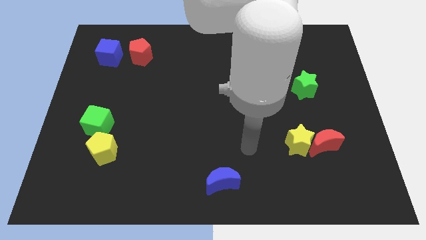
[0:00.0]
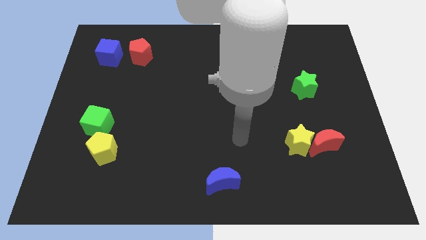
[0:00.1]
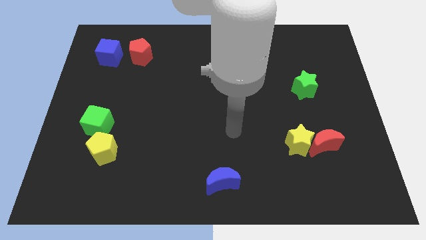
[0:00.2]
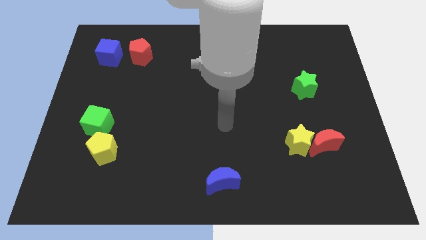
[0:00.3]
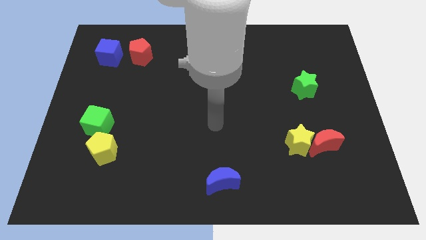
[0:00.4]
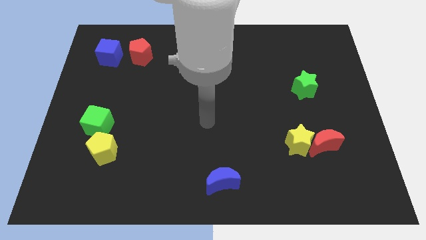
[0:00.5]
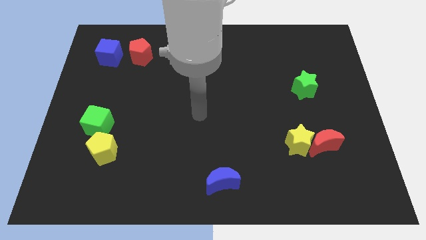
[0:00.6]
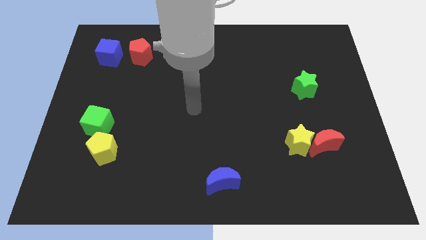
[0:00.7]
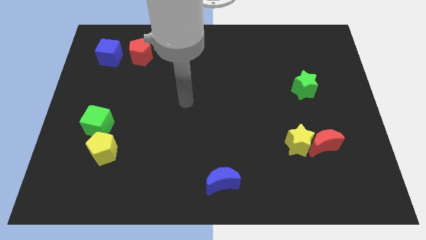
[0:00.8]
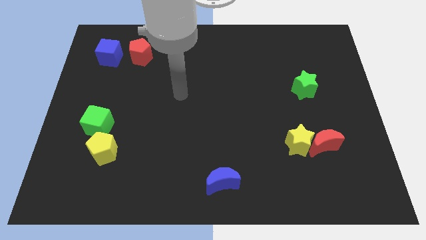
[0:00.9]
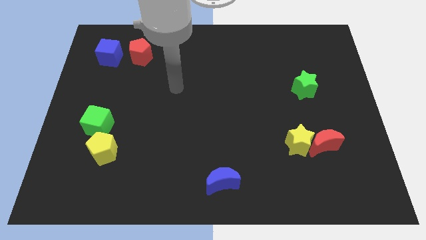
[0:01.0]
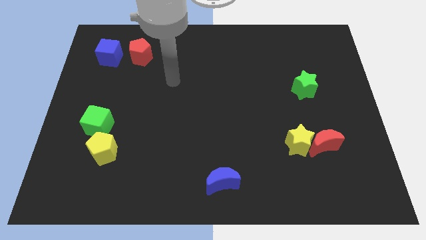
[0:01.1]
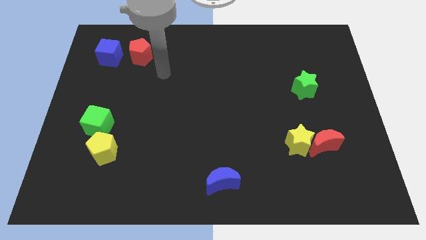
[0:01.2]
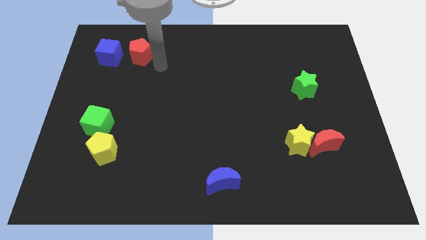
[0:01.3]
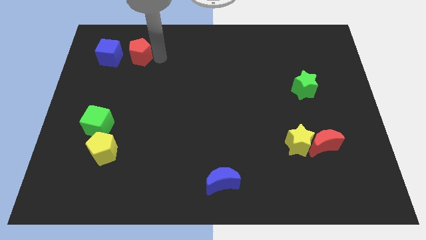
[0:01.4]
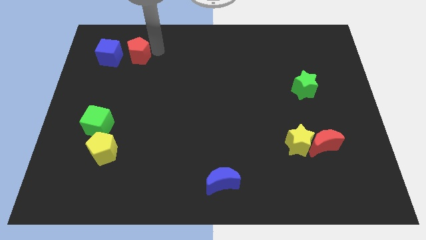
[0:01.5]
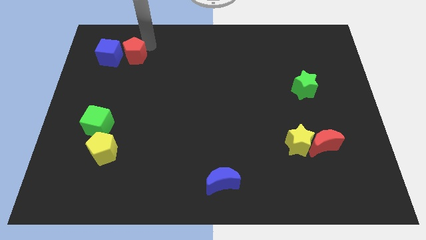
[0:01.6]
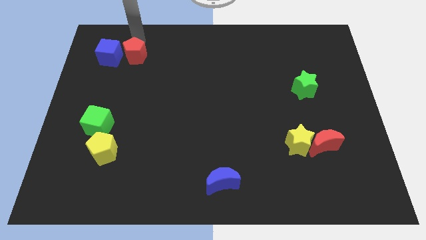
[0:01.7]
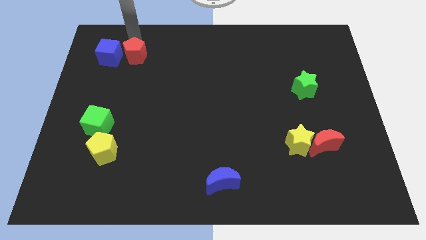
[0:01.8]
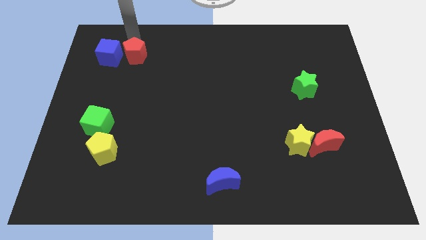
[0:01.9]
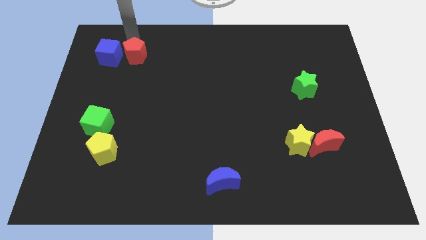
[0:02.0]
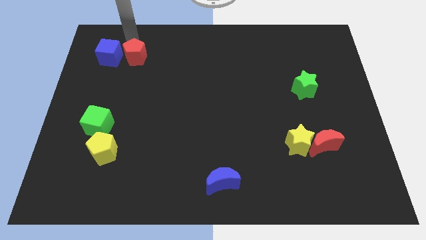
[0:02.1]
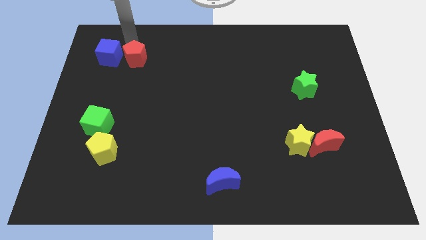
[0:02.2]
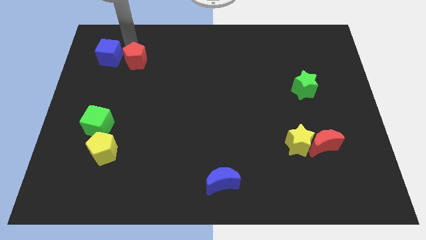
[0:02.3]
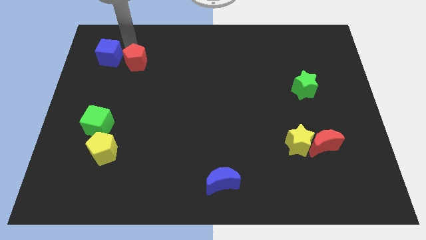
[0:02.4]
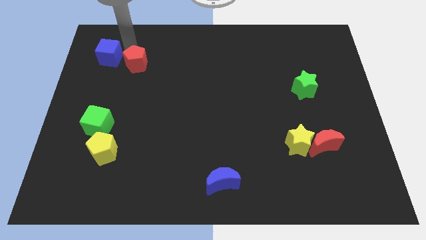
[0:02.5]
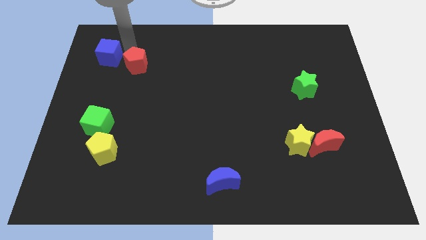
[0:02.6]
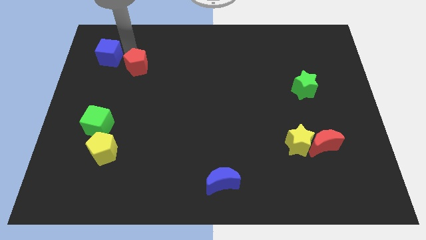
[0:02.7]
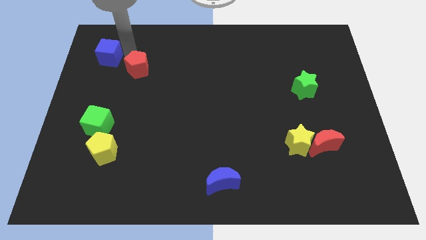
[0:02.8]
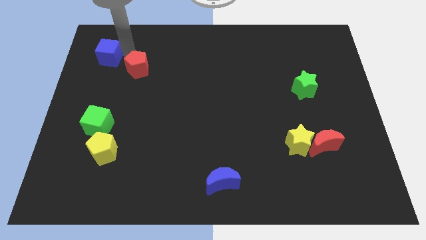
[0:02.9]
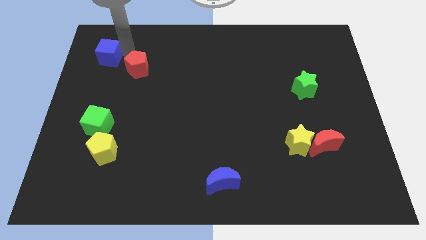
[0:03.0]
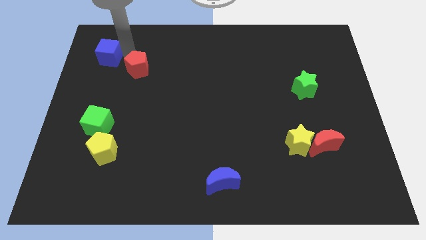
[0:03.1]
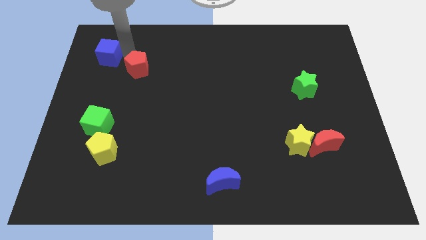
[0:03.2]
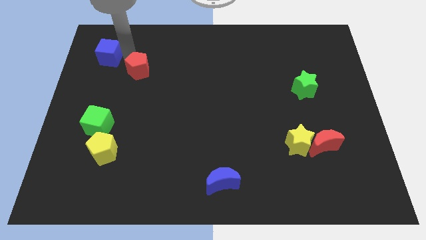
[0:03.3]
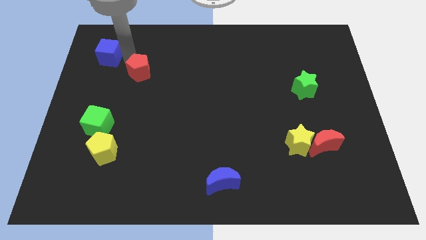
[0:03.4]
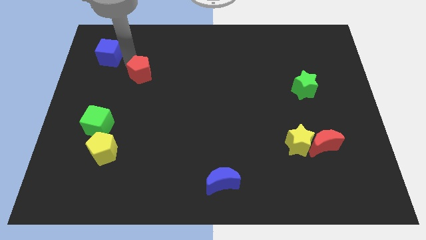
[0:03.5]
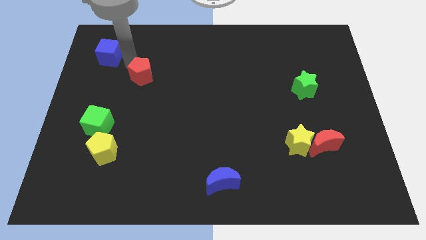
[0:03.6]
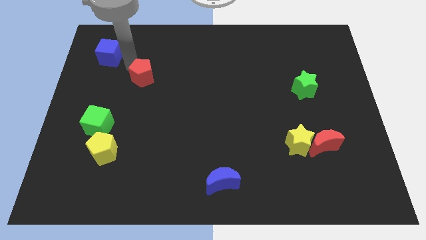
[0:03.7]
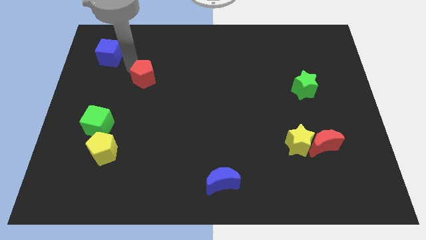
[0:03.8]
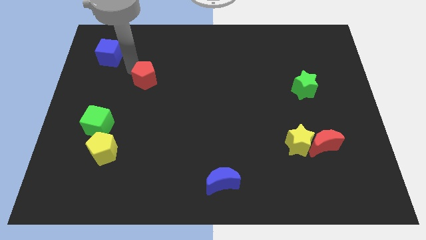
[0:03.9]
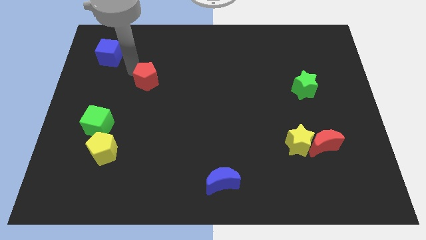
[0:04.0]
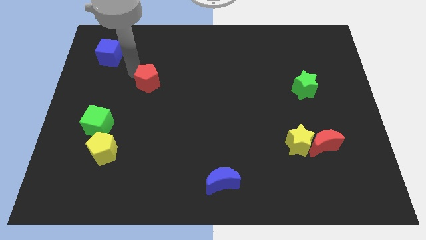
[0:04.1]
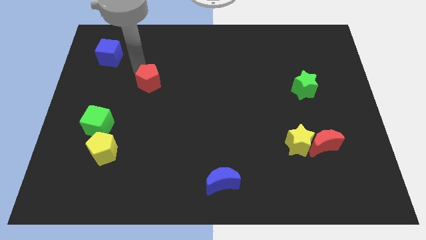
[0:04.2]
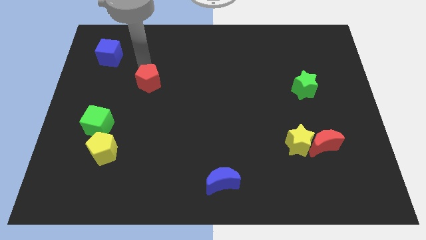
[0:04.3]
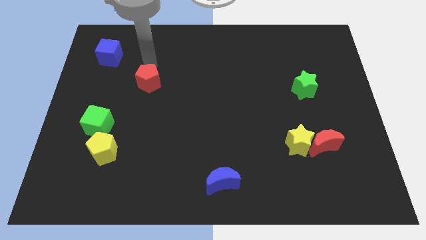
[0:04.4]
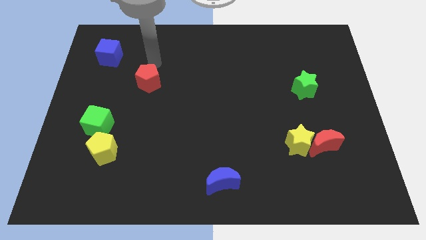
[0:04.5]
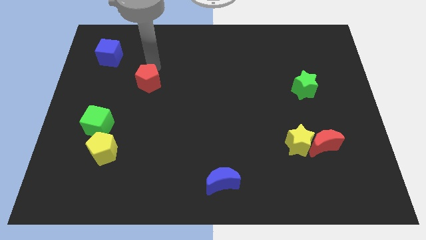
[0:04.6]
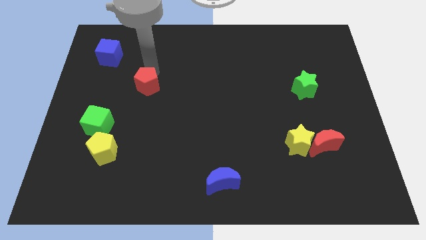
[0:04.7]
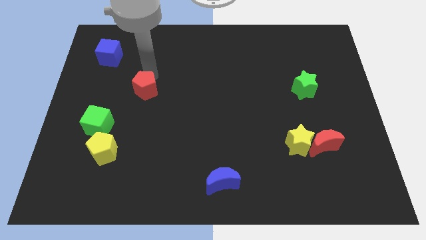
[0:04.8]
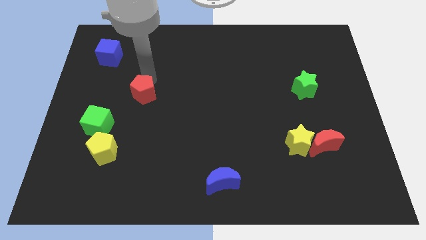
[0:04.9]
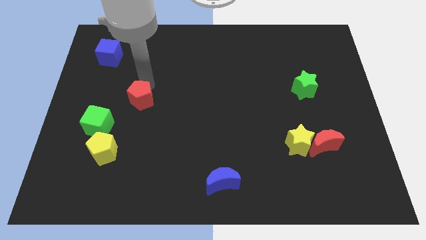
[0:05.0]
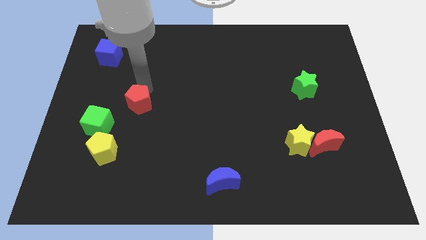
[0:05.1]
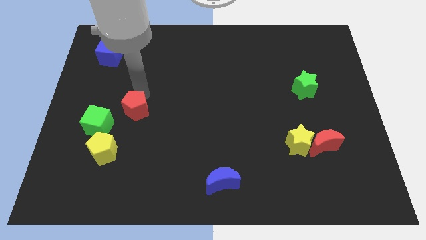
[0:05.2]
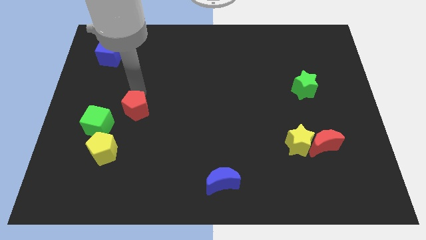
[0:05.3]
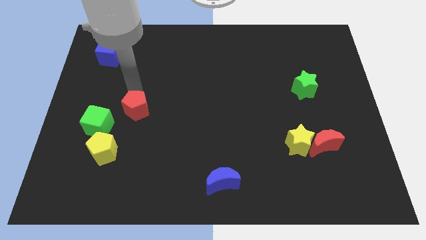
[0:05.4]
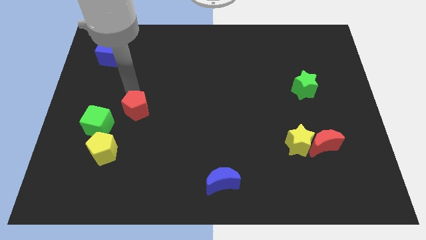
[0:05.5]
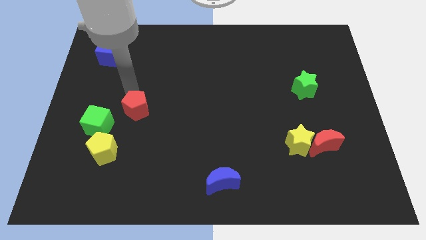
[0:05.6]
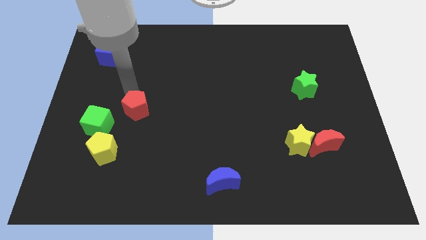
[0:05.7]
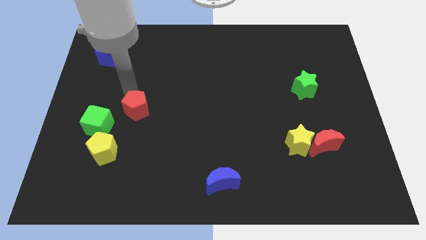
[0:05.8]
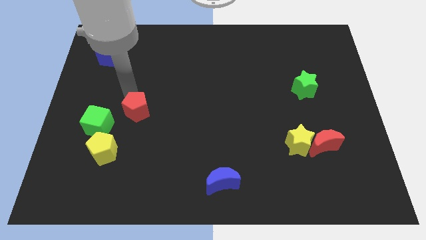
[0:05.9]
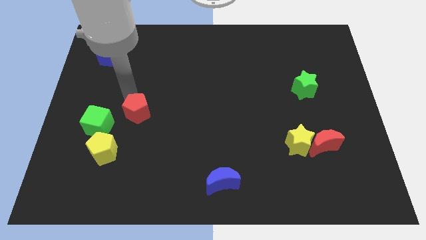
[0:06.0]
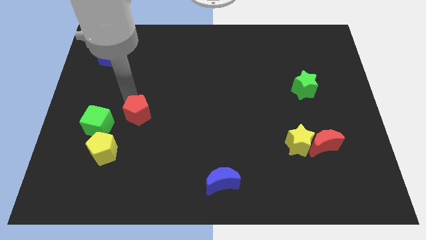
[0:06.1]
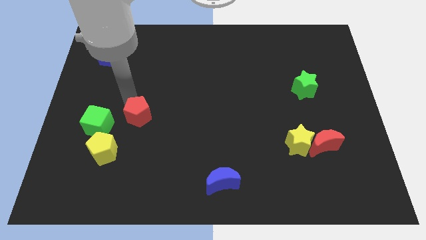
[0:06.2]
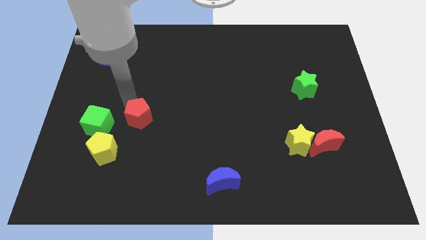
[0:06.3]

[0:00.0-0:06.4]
move the red pentagon downwards

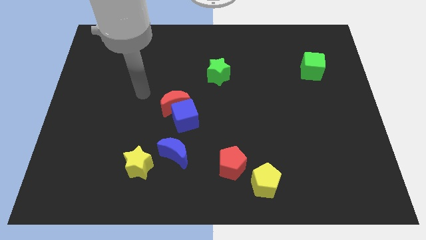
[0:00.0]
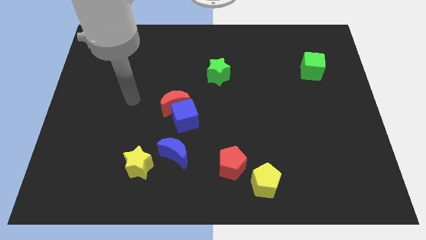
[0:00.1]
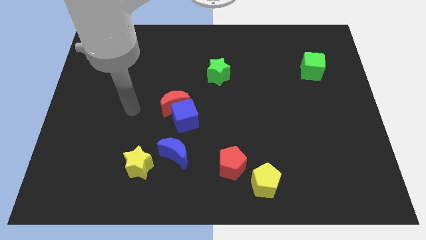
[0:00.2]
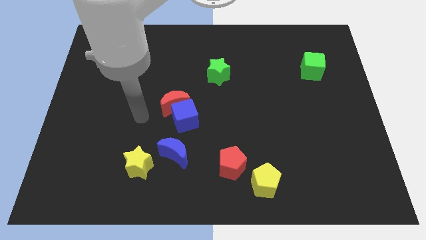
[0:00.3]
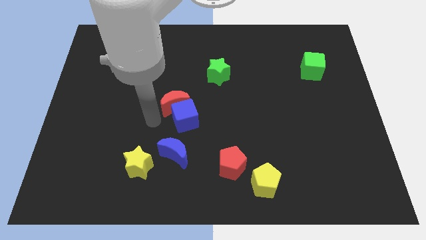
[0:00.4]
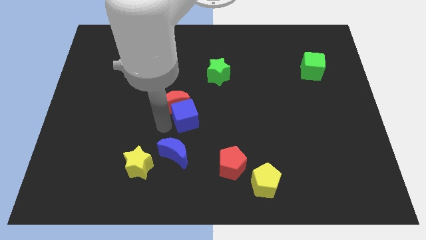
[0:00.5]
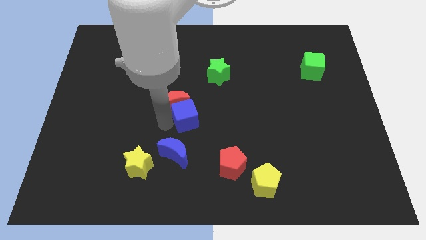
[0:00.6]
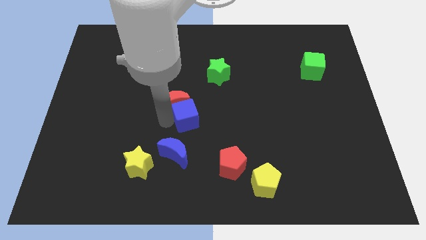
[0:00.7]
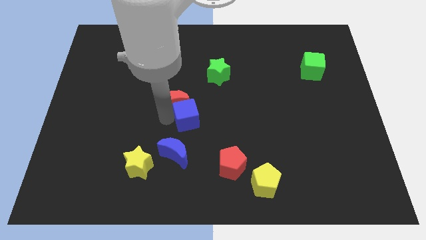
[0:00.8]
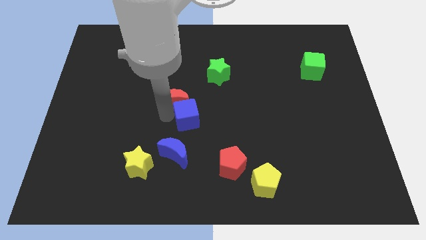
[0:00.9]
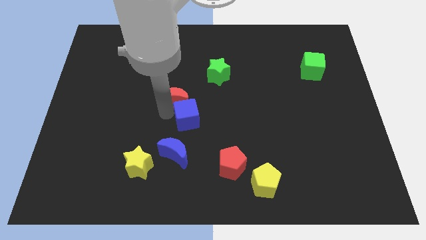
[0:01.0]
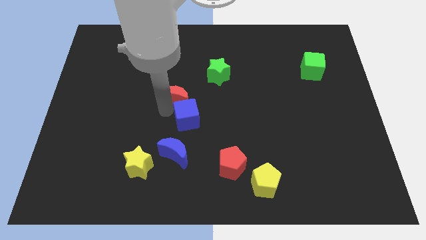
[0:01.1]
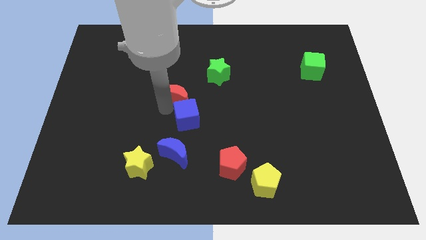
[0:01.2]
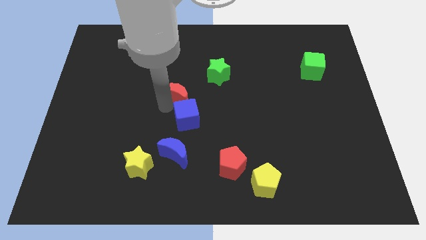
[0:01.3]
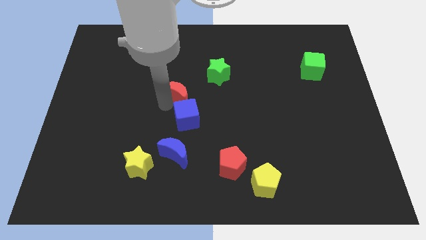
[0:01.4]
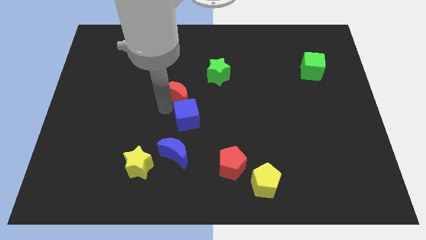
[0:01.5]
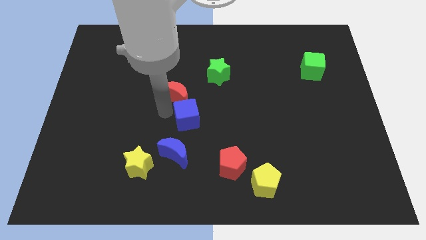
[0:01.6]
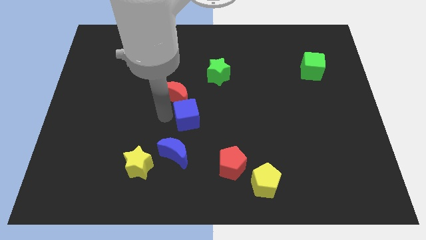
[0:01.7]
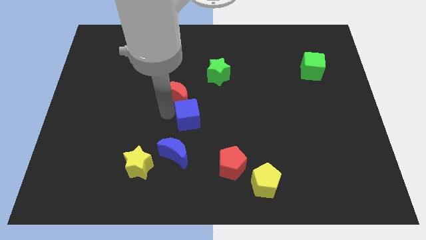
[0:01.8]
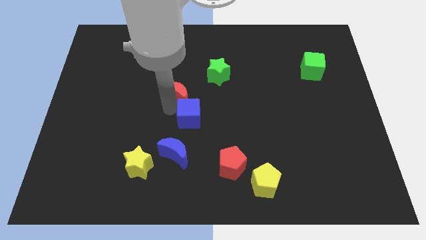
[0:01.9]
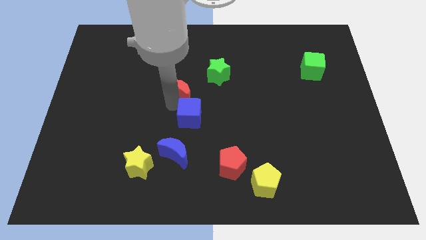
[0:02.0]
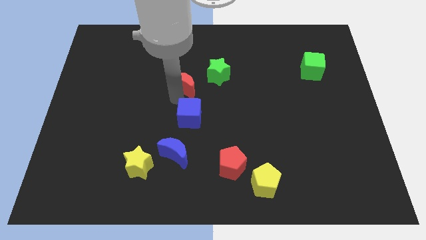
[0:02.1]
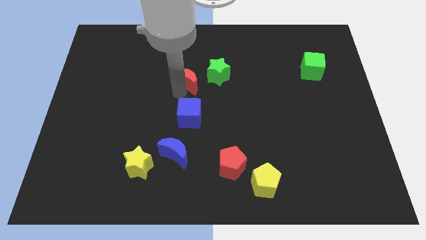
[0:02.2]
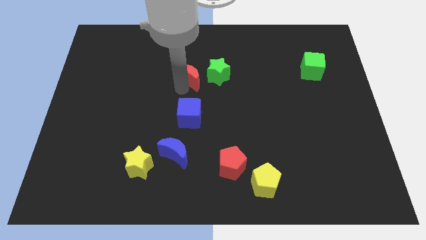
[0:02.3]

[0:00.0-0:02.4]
push the red moon slightly upwards and right diagonally
